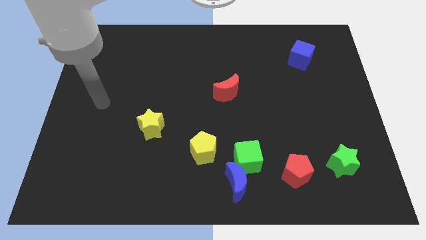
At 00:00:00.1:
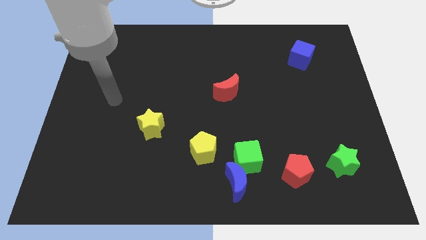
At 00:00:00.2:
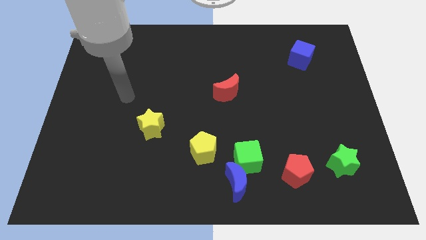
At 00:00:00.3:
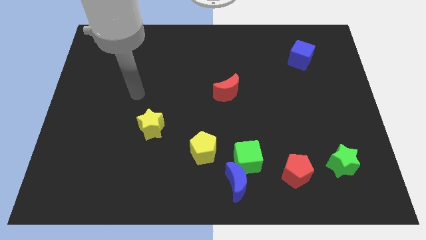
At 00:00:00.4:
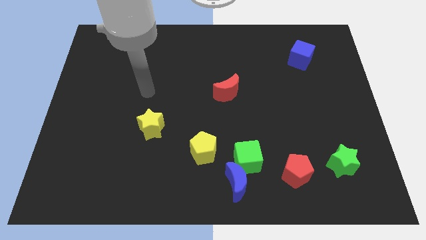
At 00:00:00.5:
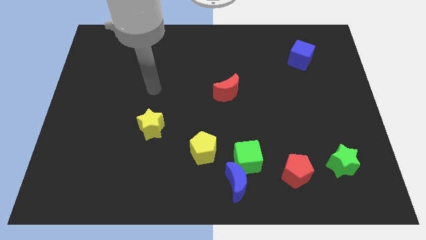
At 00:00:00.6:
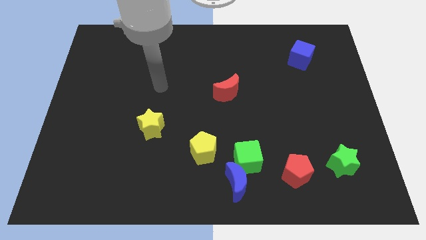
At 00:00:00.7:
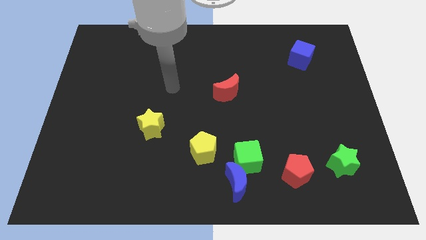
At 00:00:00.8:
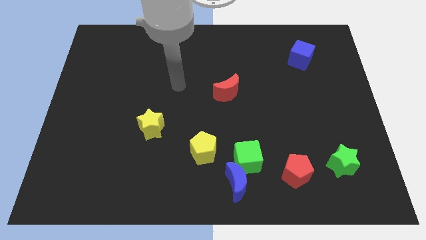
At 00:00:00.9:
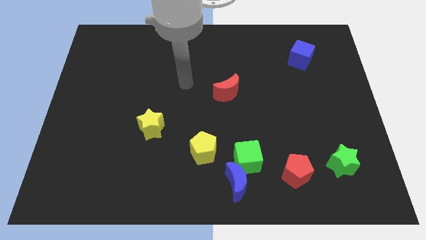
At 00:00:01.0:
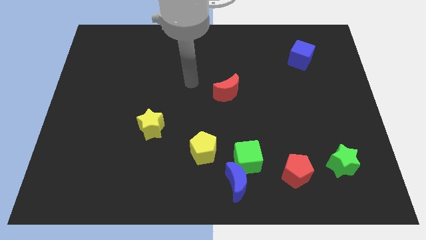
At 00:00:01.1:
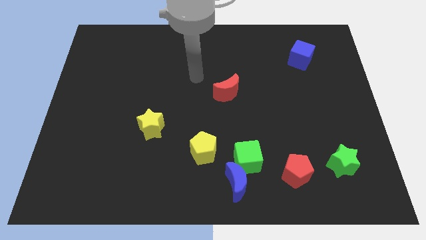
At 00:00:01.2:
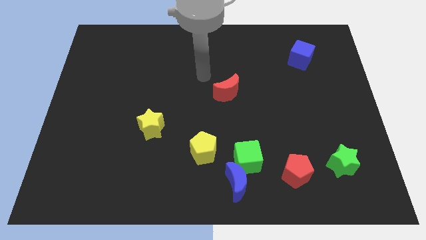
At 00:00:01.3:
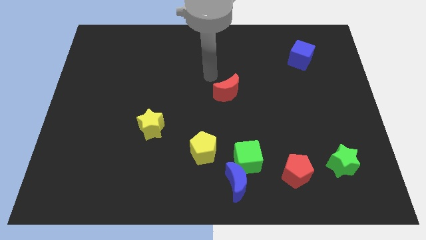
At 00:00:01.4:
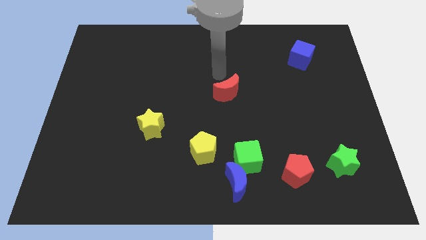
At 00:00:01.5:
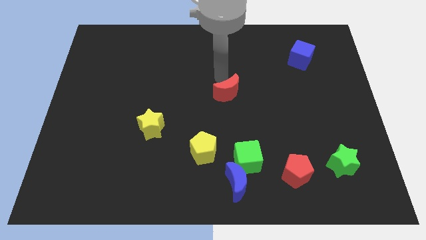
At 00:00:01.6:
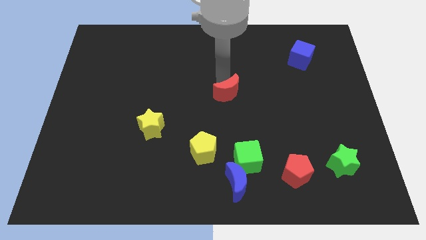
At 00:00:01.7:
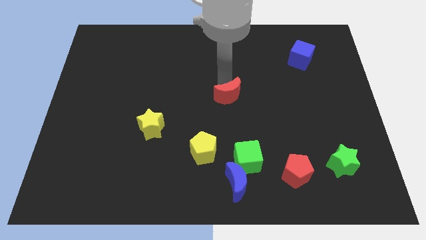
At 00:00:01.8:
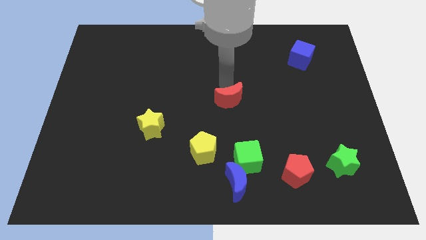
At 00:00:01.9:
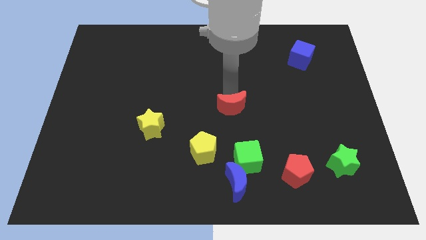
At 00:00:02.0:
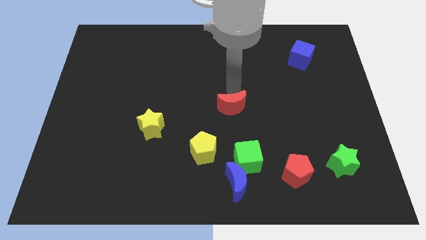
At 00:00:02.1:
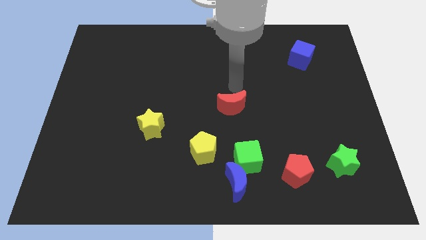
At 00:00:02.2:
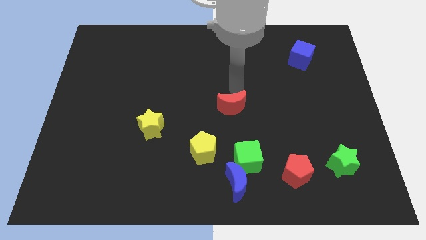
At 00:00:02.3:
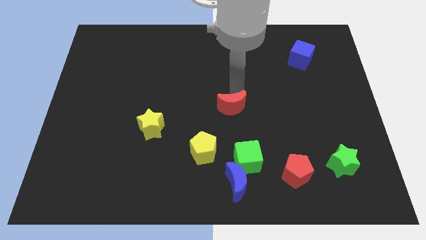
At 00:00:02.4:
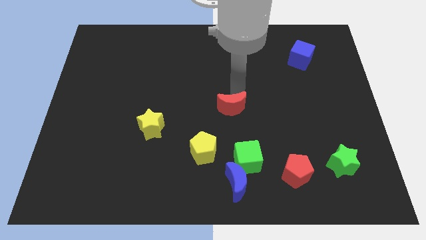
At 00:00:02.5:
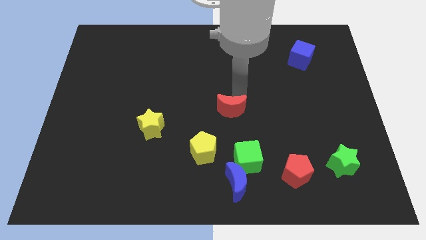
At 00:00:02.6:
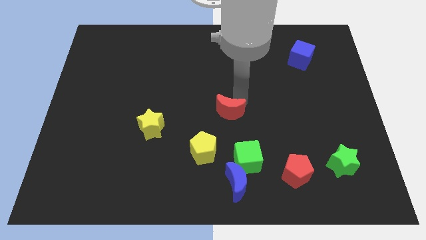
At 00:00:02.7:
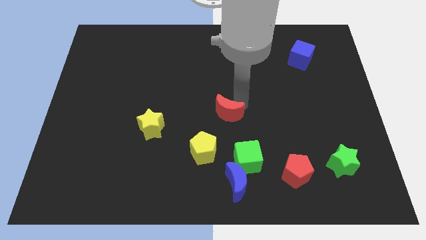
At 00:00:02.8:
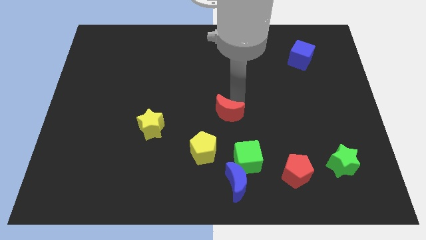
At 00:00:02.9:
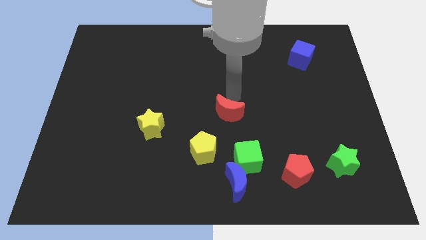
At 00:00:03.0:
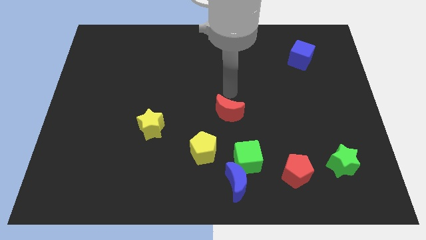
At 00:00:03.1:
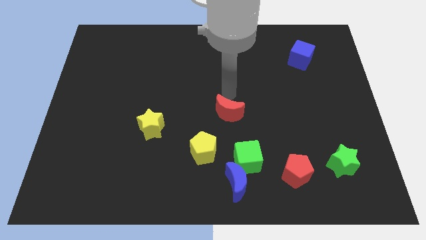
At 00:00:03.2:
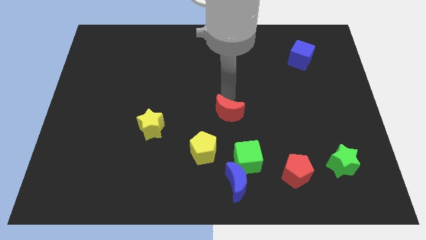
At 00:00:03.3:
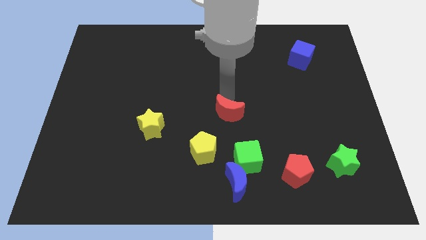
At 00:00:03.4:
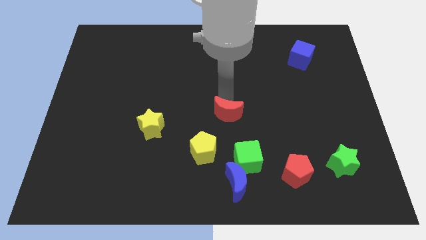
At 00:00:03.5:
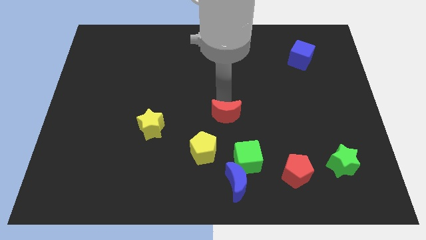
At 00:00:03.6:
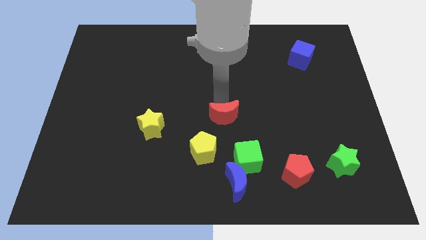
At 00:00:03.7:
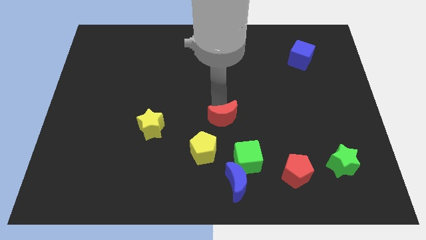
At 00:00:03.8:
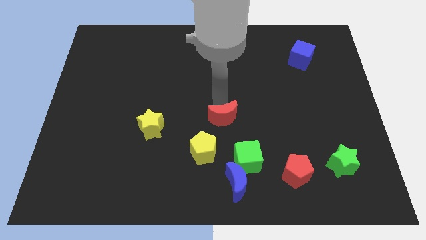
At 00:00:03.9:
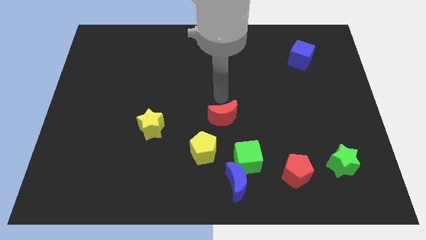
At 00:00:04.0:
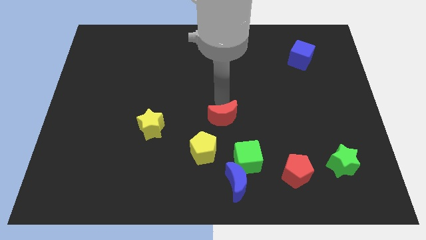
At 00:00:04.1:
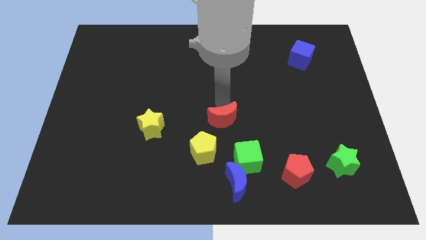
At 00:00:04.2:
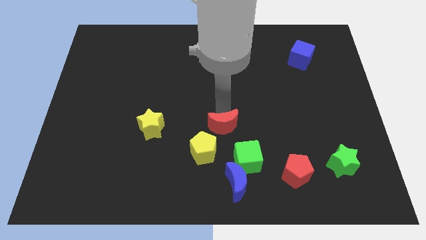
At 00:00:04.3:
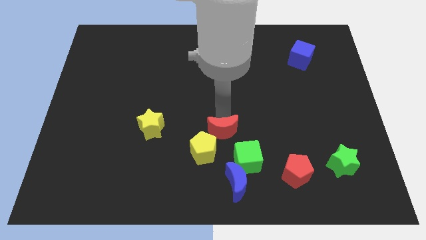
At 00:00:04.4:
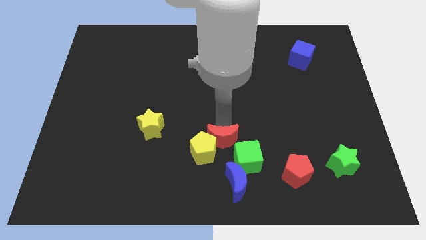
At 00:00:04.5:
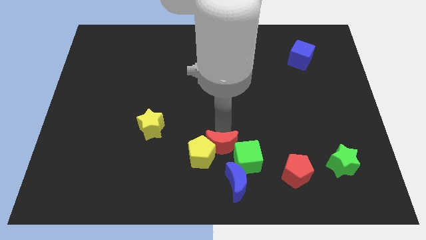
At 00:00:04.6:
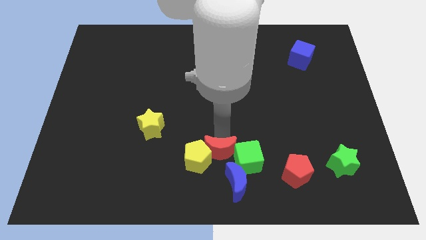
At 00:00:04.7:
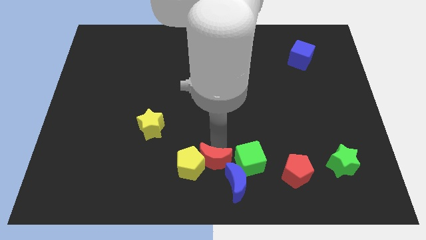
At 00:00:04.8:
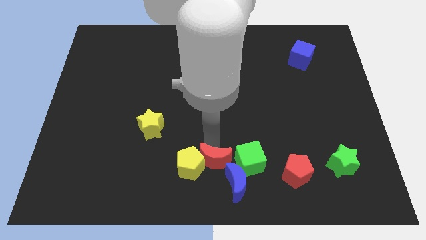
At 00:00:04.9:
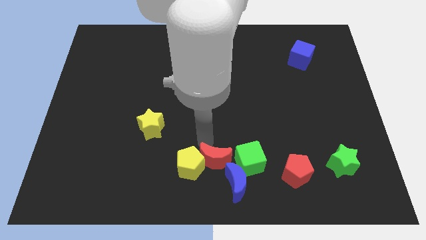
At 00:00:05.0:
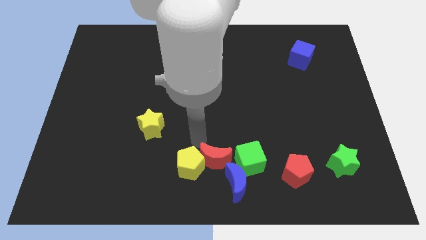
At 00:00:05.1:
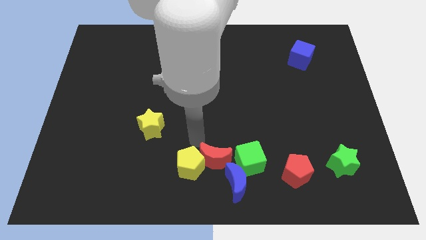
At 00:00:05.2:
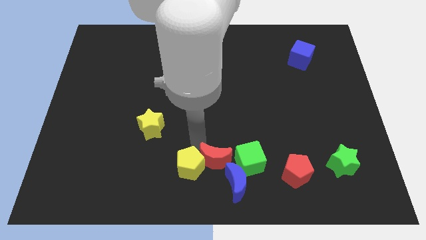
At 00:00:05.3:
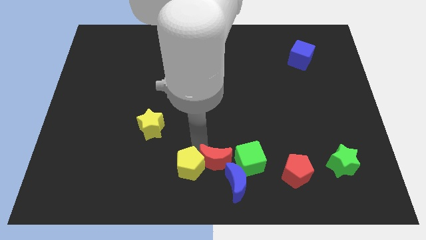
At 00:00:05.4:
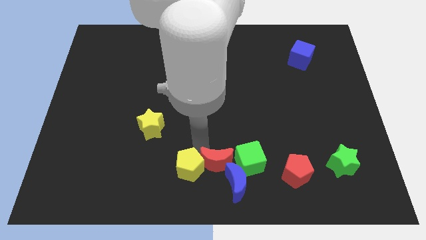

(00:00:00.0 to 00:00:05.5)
slide the red moon to the blue moon

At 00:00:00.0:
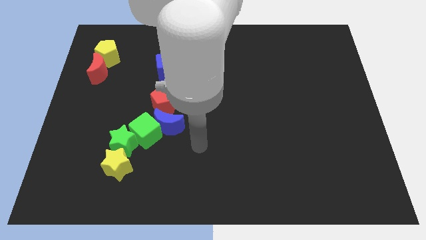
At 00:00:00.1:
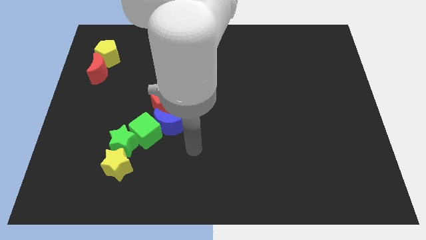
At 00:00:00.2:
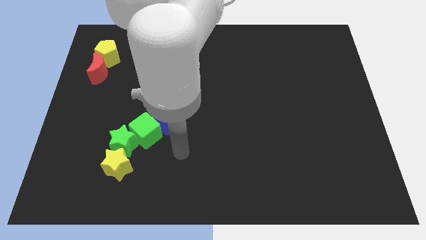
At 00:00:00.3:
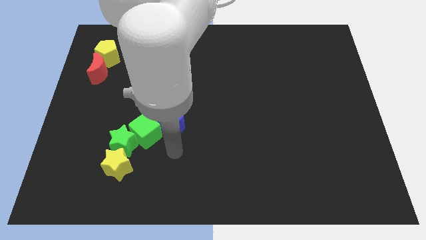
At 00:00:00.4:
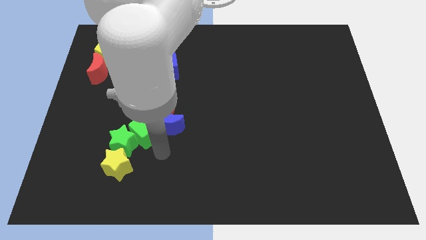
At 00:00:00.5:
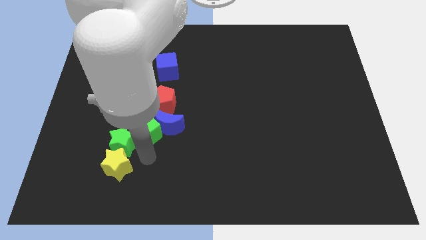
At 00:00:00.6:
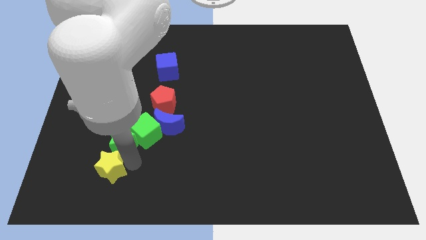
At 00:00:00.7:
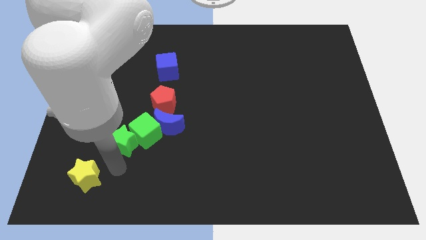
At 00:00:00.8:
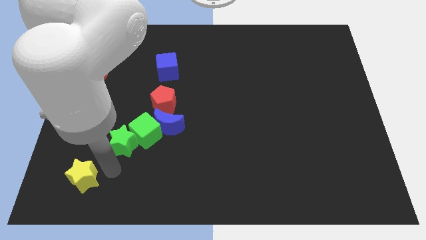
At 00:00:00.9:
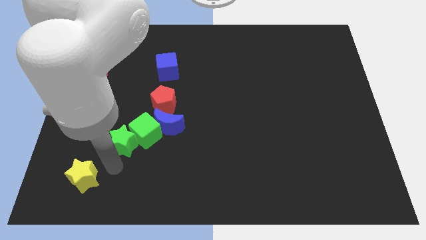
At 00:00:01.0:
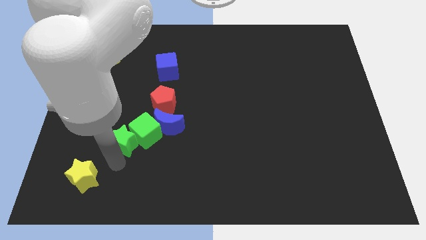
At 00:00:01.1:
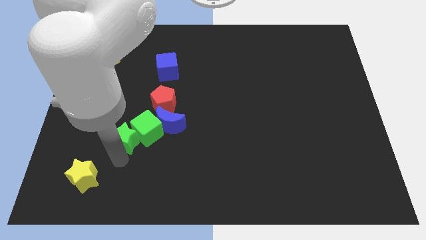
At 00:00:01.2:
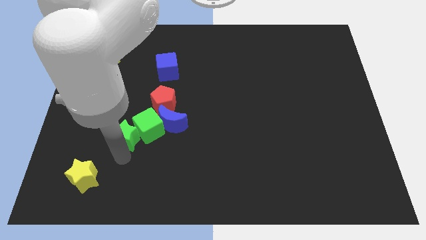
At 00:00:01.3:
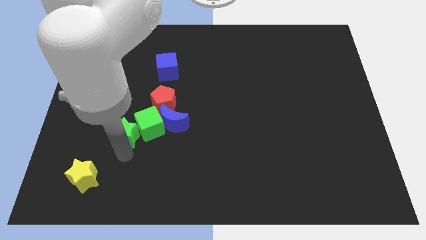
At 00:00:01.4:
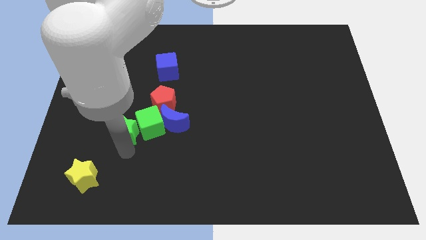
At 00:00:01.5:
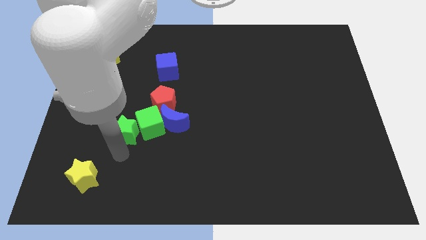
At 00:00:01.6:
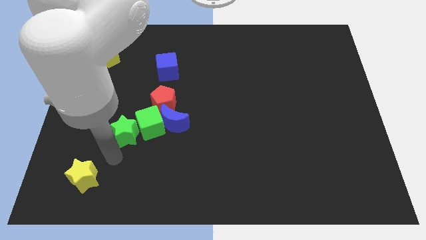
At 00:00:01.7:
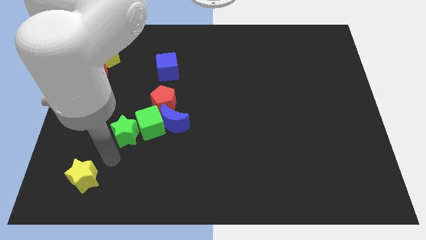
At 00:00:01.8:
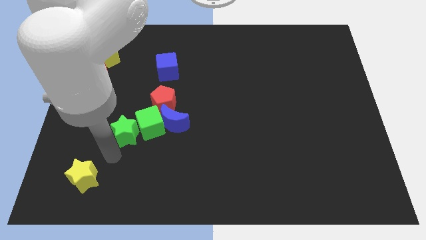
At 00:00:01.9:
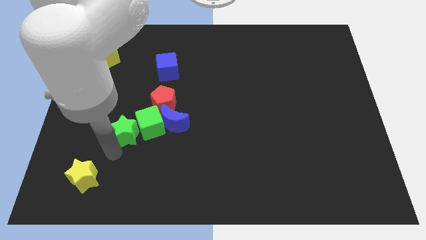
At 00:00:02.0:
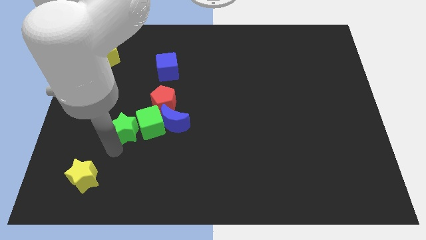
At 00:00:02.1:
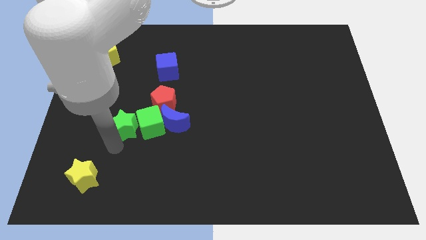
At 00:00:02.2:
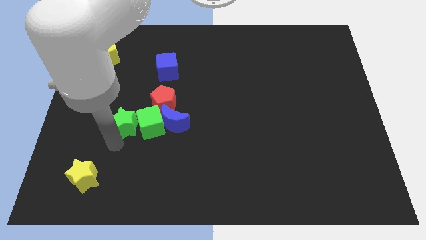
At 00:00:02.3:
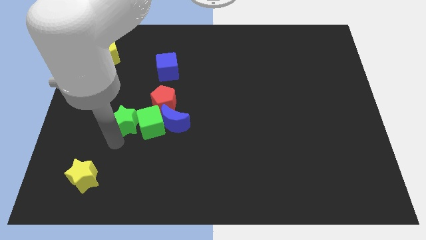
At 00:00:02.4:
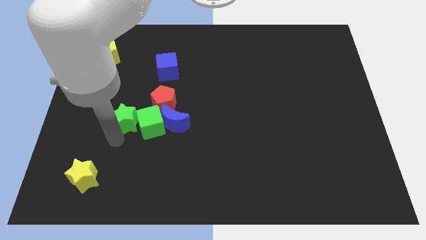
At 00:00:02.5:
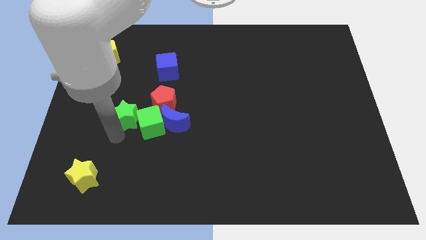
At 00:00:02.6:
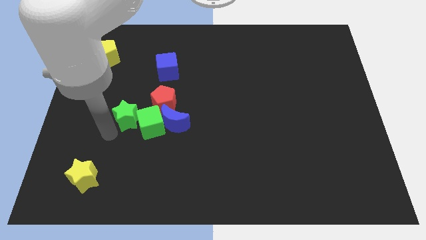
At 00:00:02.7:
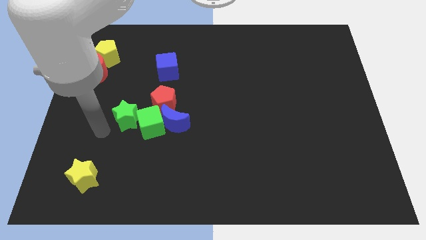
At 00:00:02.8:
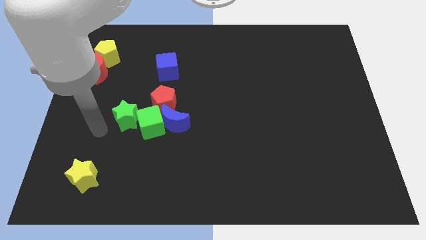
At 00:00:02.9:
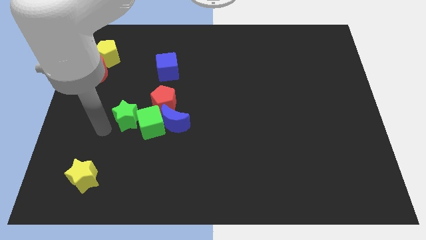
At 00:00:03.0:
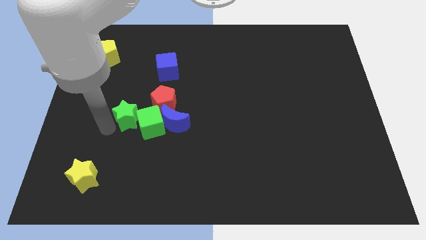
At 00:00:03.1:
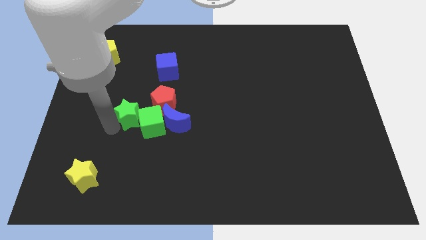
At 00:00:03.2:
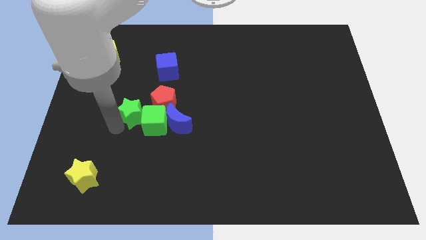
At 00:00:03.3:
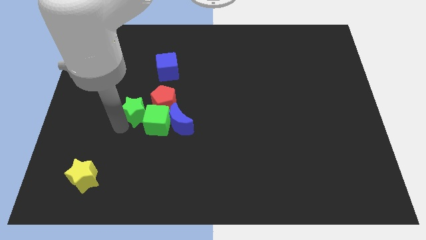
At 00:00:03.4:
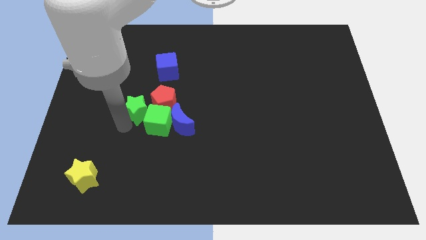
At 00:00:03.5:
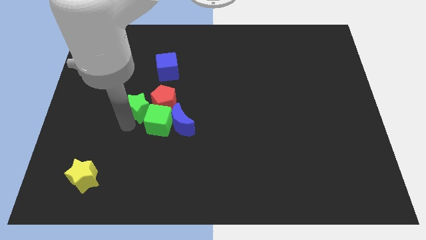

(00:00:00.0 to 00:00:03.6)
push the green star next to the red pentagon
